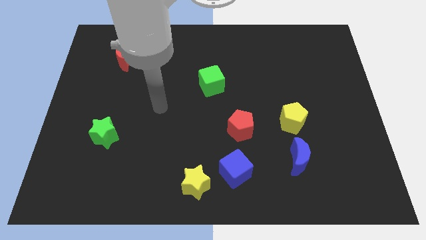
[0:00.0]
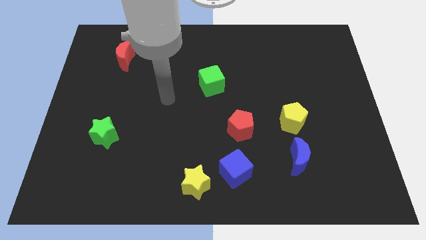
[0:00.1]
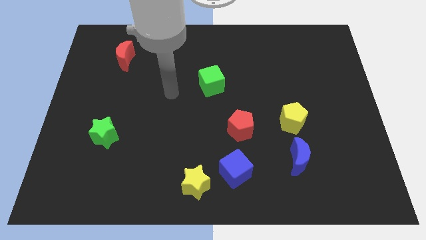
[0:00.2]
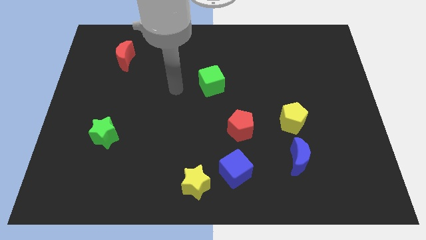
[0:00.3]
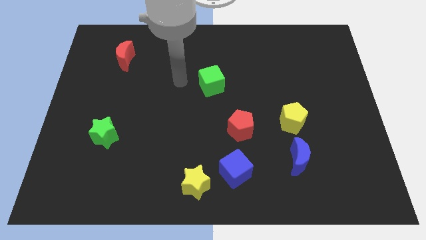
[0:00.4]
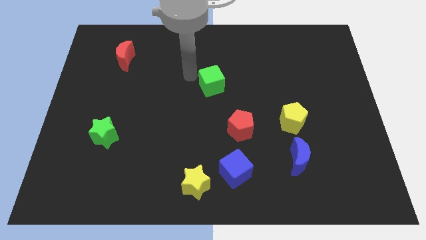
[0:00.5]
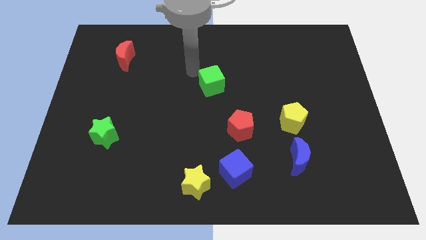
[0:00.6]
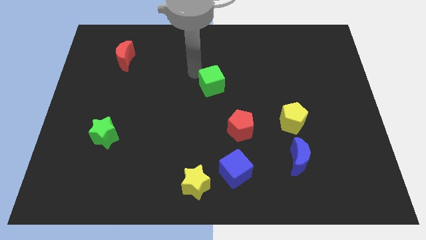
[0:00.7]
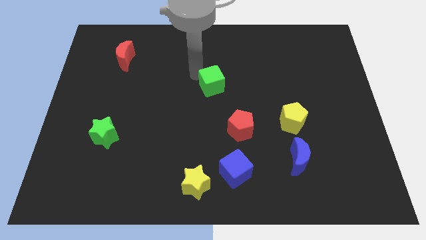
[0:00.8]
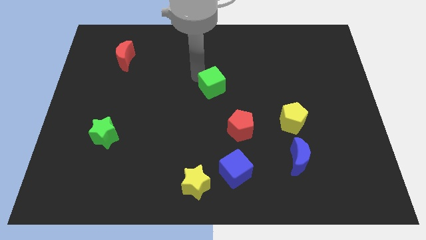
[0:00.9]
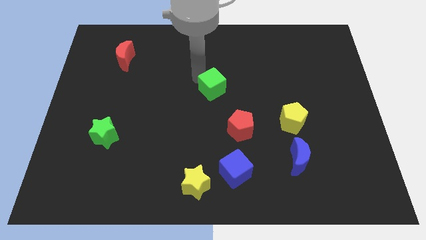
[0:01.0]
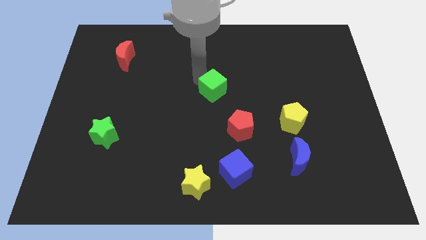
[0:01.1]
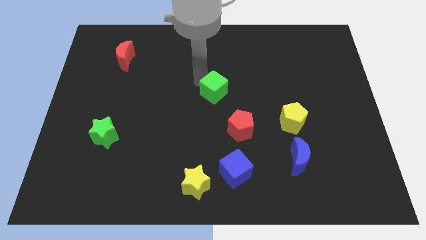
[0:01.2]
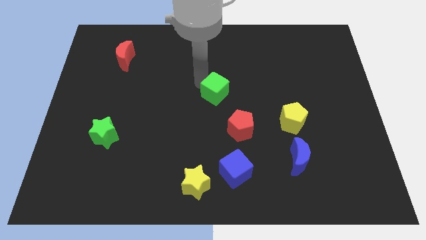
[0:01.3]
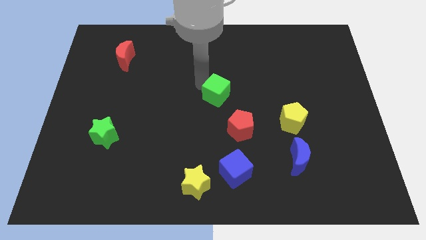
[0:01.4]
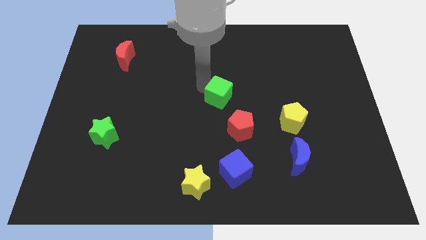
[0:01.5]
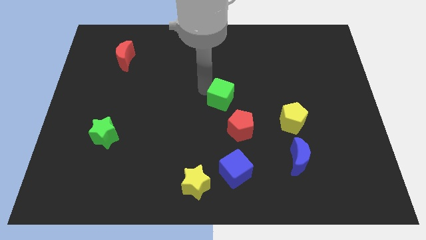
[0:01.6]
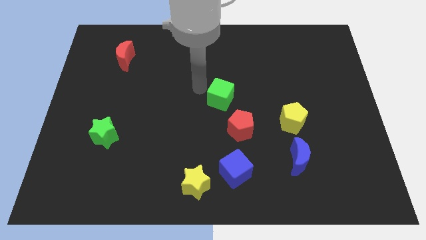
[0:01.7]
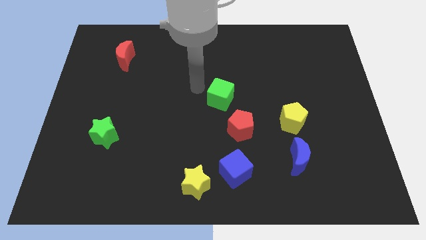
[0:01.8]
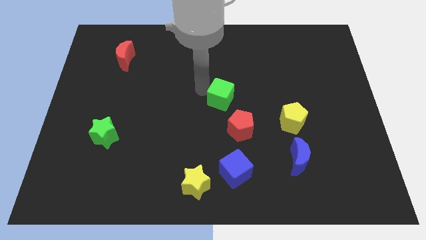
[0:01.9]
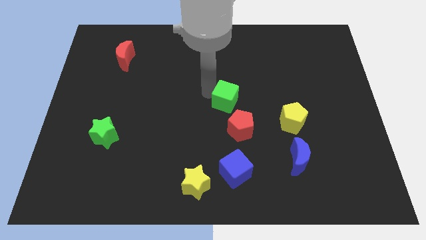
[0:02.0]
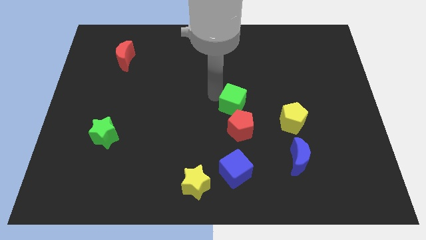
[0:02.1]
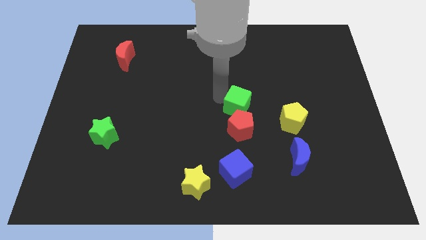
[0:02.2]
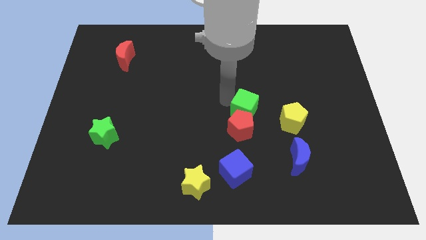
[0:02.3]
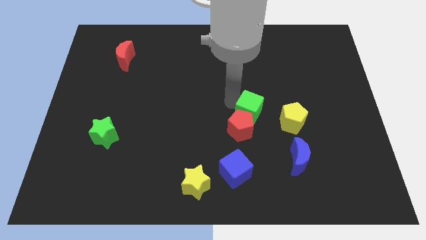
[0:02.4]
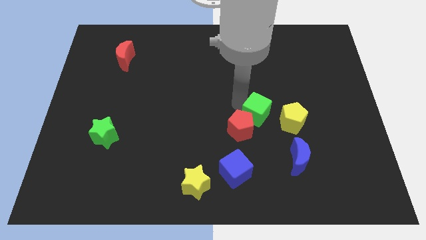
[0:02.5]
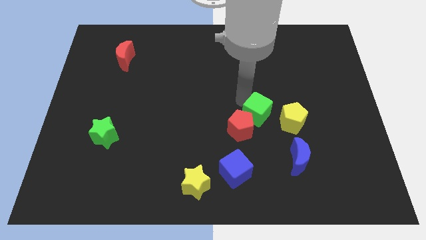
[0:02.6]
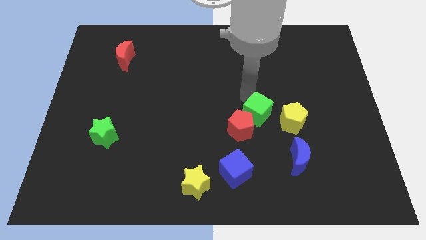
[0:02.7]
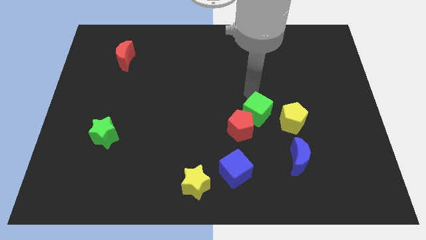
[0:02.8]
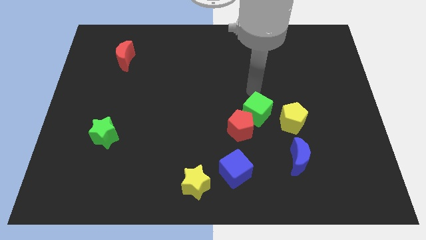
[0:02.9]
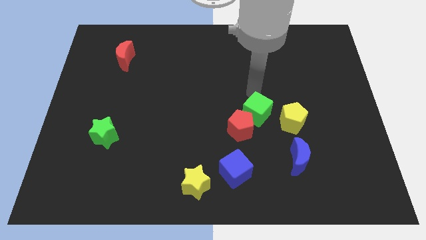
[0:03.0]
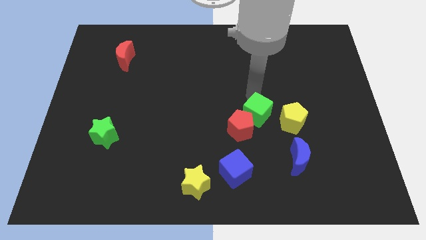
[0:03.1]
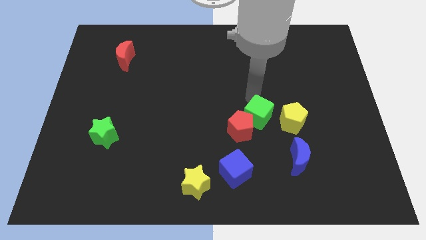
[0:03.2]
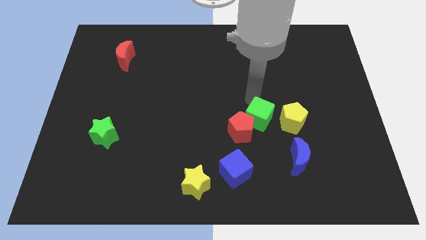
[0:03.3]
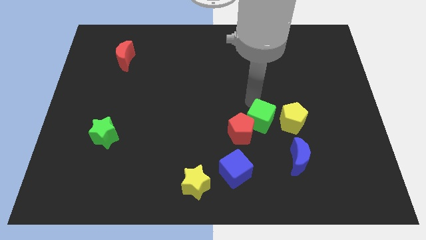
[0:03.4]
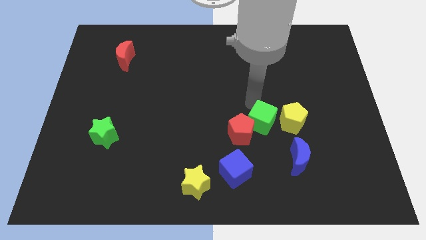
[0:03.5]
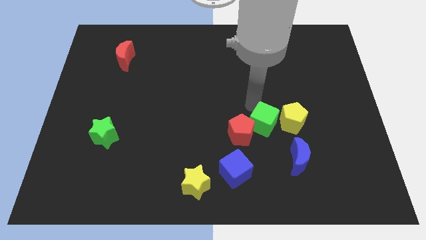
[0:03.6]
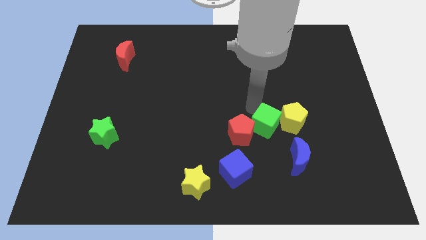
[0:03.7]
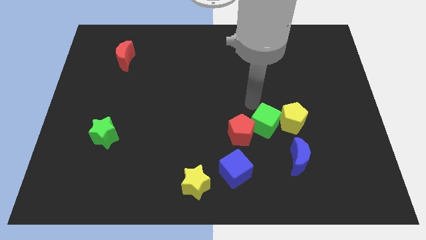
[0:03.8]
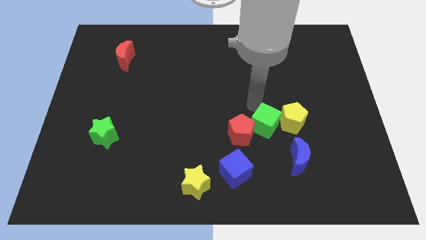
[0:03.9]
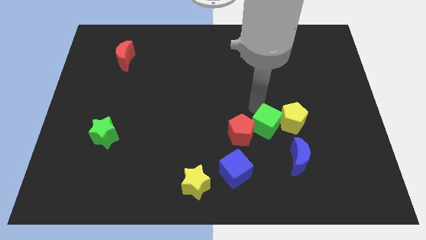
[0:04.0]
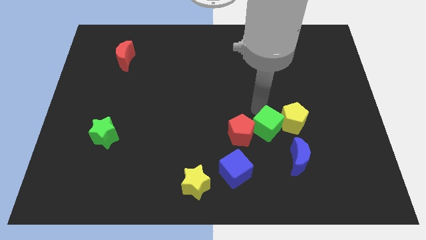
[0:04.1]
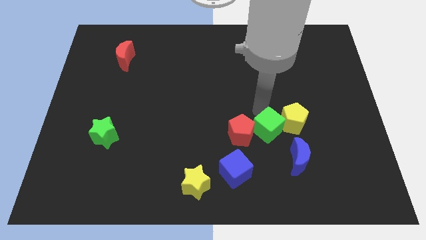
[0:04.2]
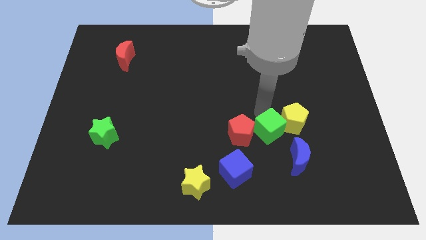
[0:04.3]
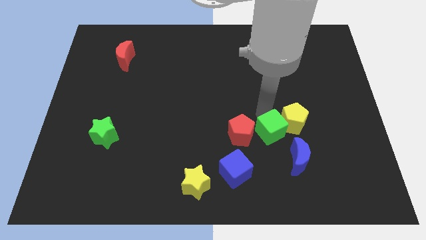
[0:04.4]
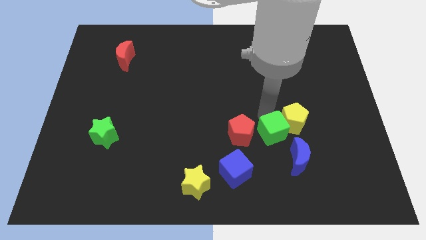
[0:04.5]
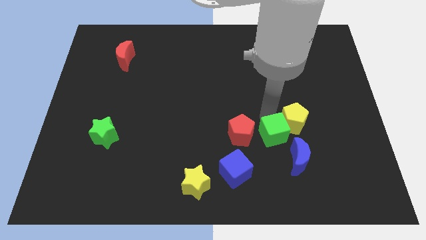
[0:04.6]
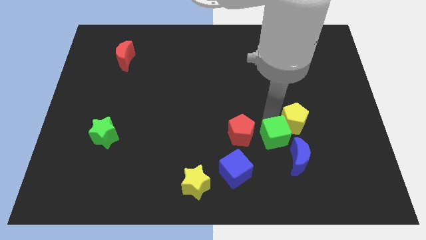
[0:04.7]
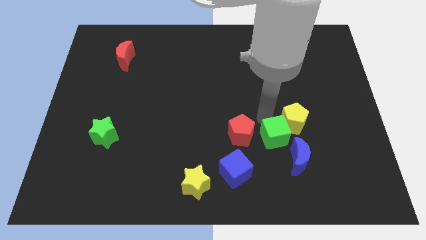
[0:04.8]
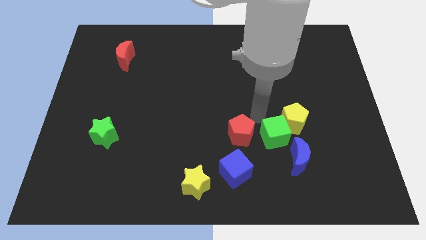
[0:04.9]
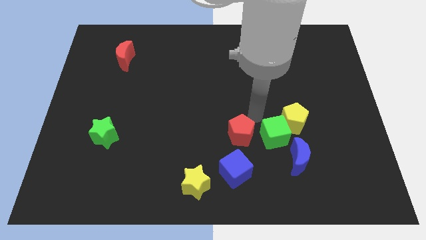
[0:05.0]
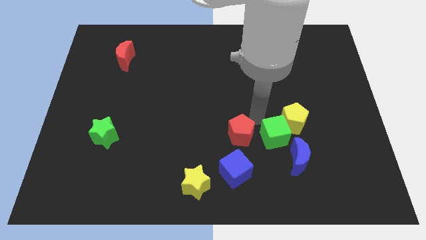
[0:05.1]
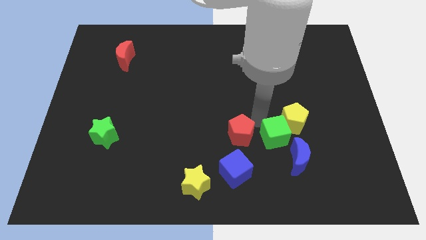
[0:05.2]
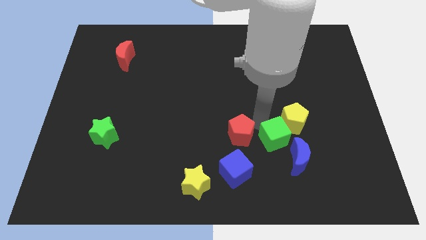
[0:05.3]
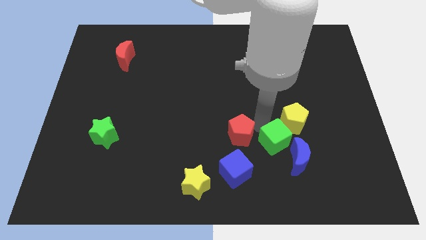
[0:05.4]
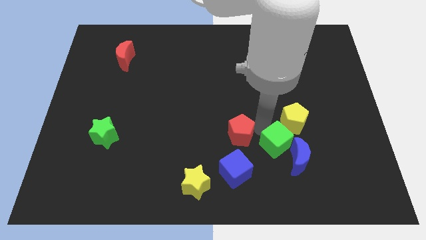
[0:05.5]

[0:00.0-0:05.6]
push the green cube next to the blue moon

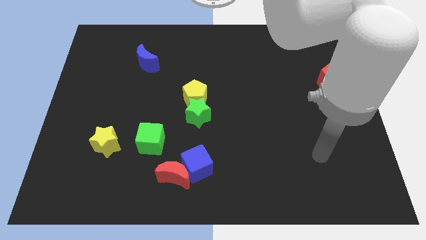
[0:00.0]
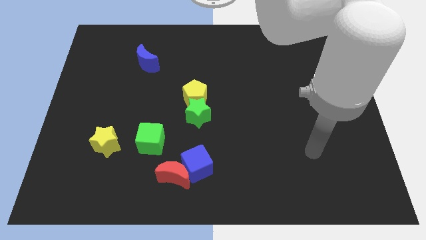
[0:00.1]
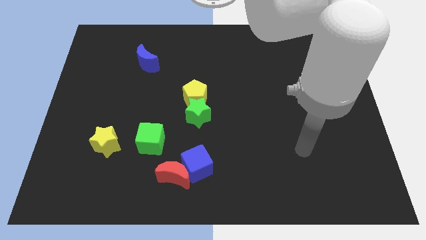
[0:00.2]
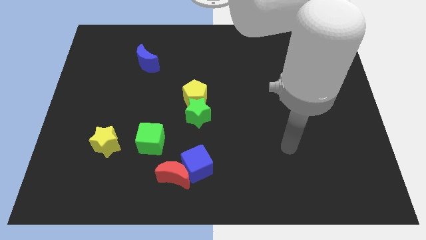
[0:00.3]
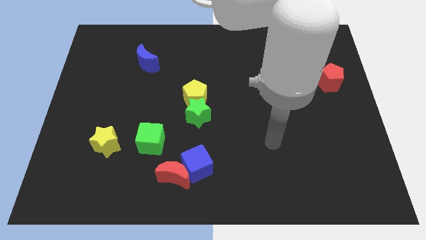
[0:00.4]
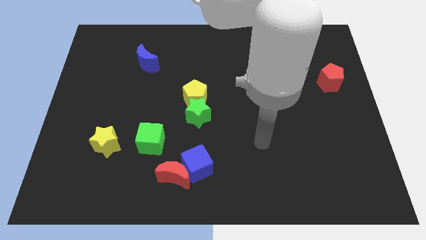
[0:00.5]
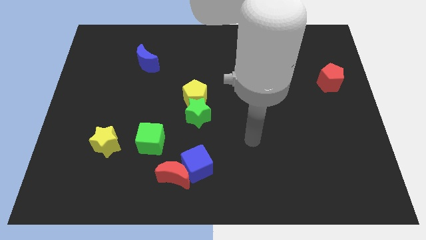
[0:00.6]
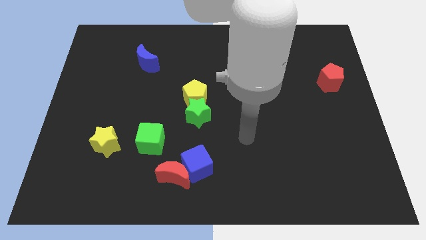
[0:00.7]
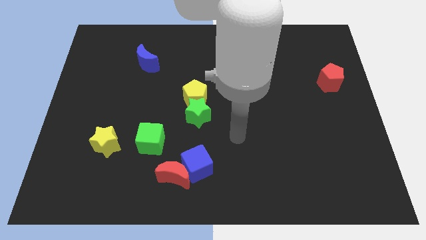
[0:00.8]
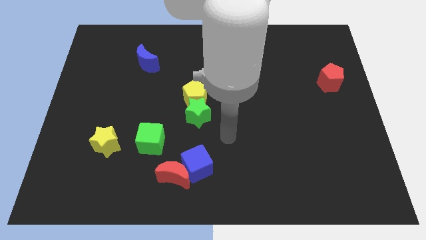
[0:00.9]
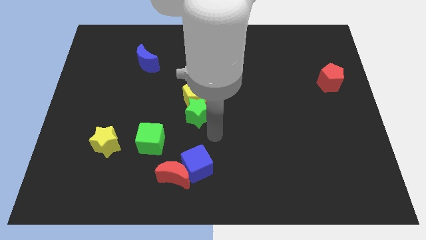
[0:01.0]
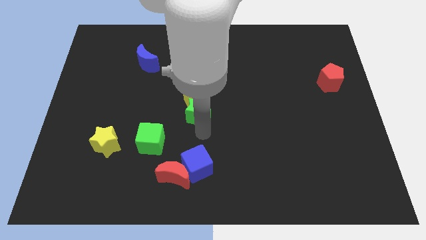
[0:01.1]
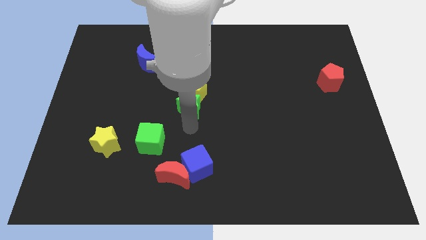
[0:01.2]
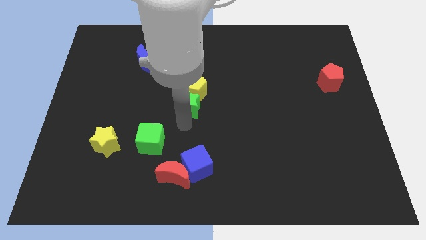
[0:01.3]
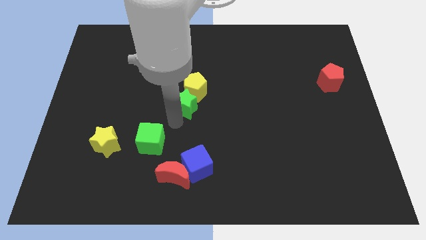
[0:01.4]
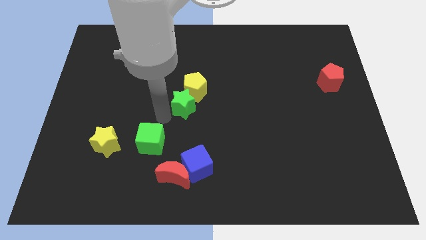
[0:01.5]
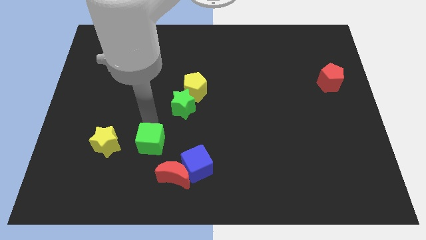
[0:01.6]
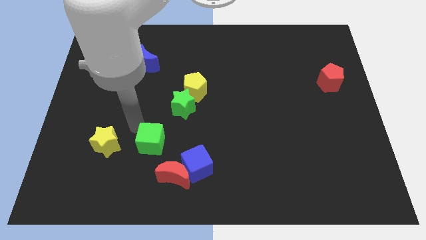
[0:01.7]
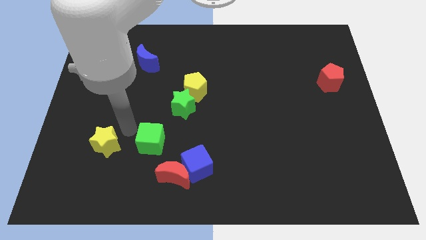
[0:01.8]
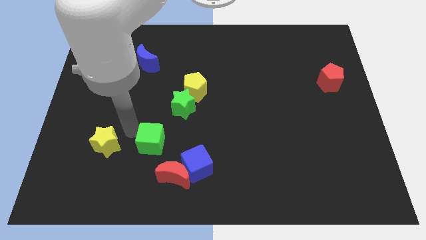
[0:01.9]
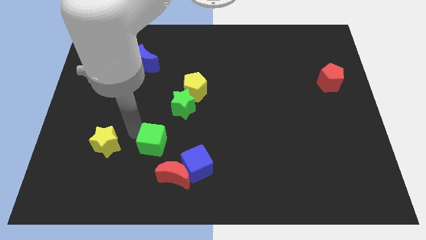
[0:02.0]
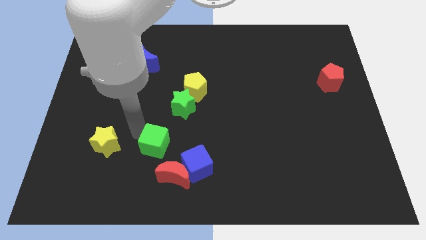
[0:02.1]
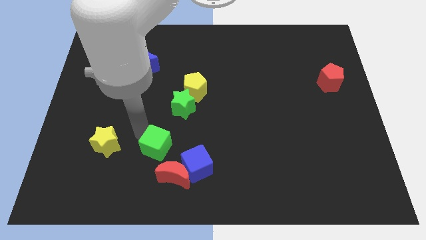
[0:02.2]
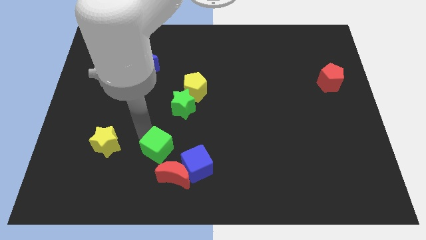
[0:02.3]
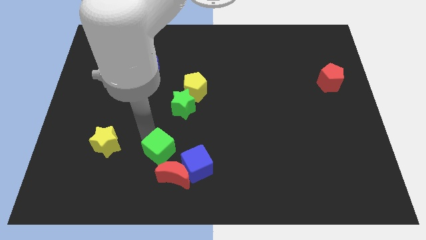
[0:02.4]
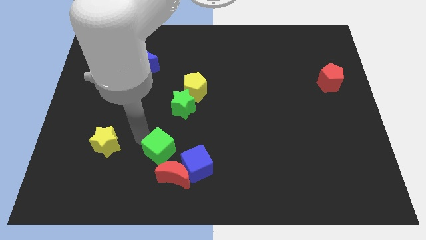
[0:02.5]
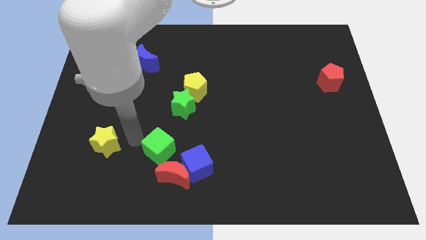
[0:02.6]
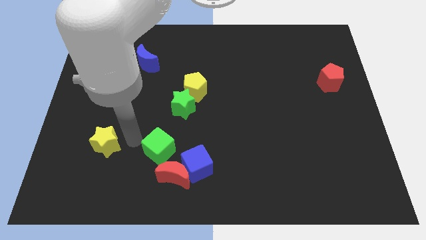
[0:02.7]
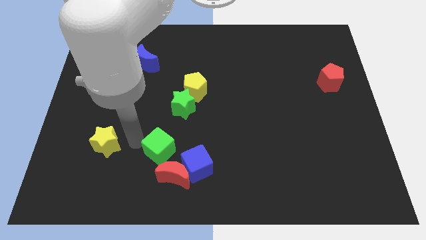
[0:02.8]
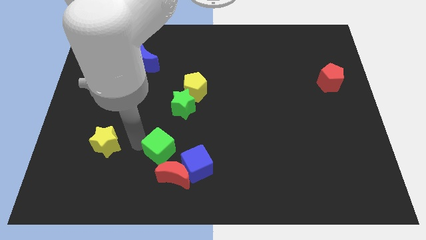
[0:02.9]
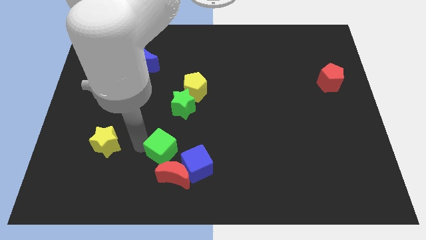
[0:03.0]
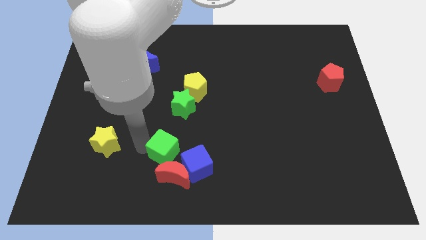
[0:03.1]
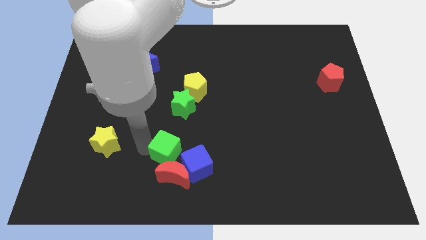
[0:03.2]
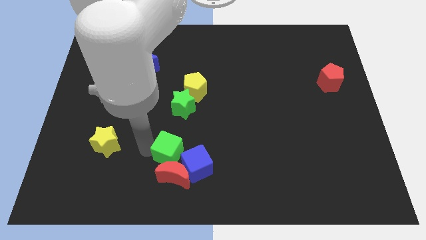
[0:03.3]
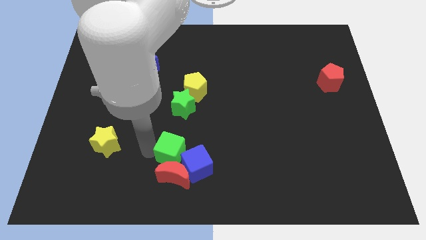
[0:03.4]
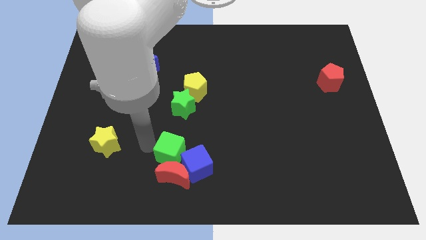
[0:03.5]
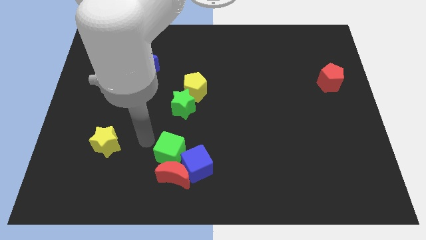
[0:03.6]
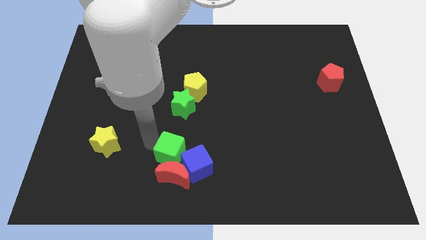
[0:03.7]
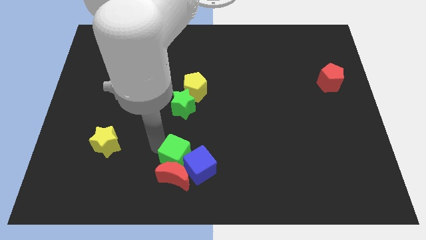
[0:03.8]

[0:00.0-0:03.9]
put the green cube towards the blue cube
